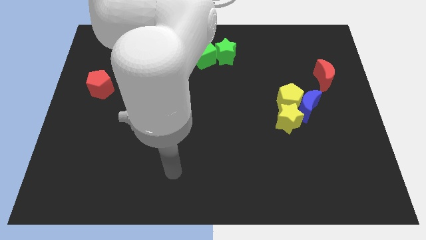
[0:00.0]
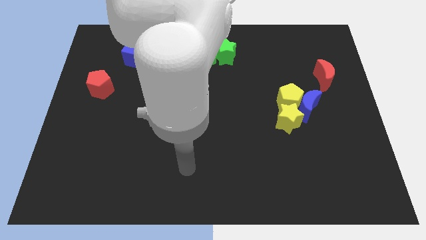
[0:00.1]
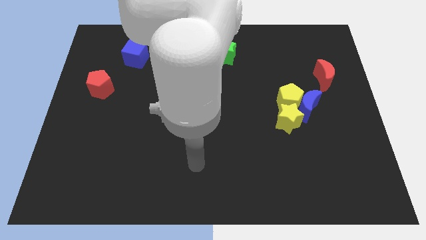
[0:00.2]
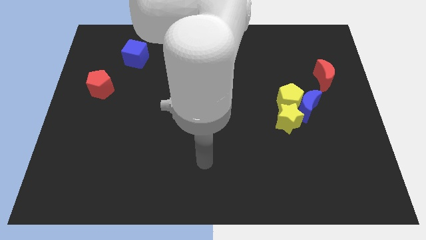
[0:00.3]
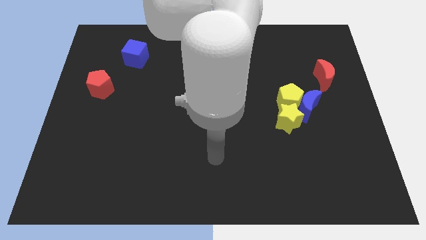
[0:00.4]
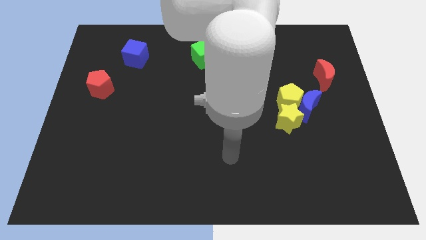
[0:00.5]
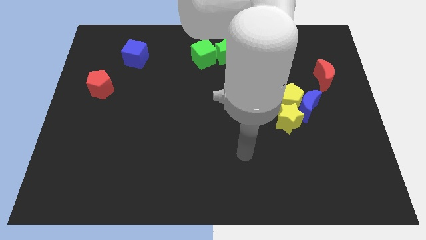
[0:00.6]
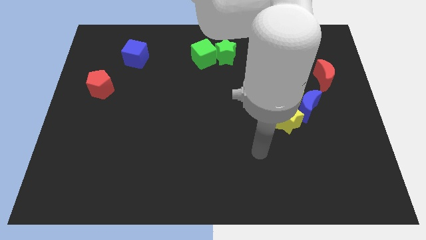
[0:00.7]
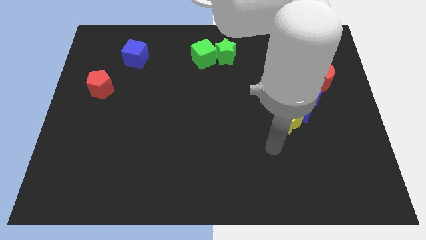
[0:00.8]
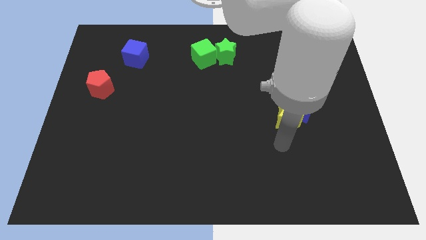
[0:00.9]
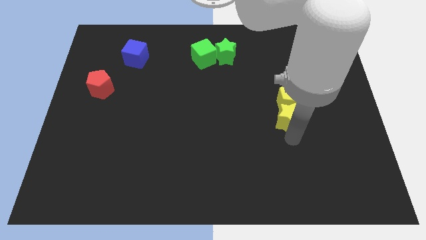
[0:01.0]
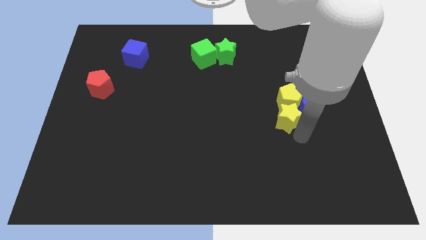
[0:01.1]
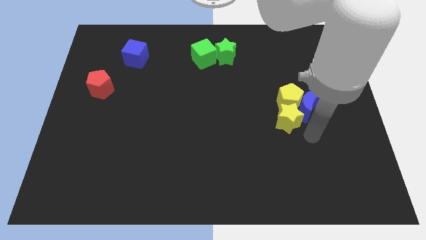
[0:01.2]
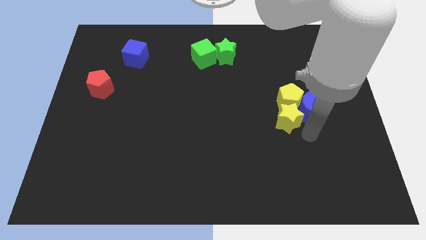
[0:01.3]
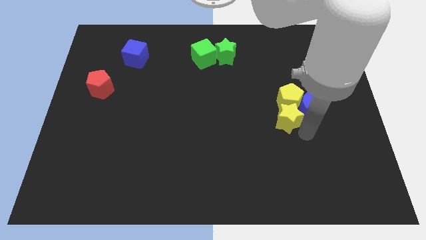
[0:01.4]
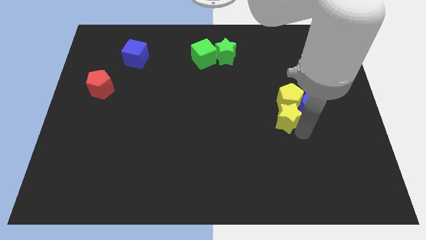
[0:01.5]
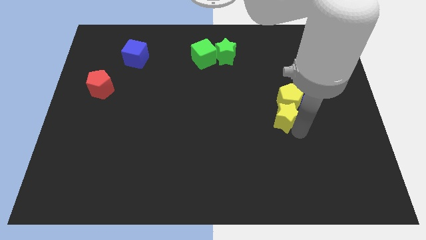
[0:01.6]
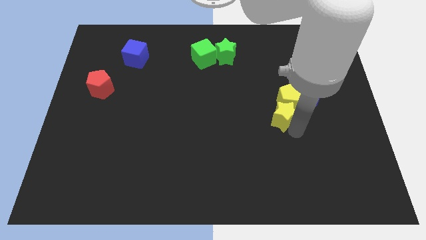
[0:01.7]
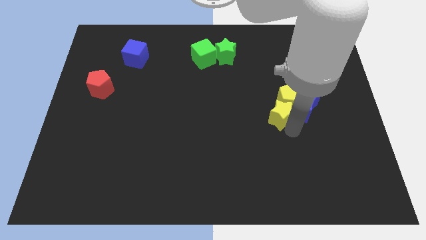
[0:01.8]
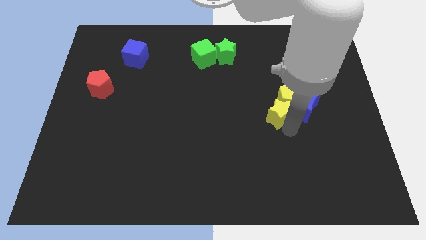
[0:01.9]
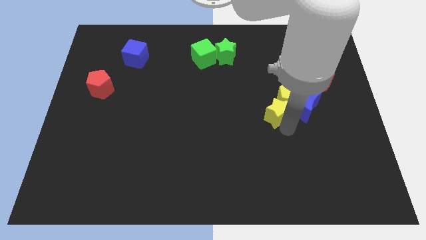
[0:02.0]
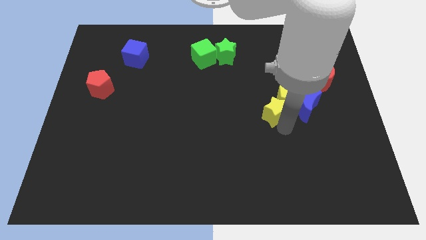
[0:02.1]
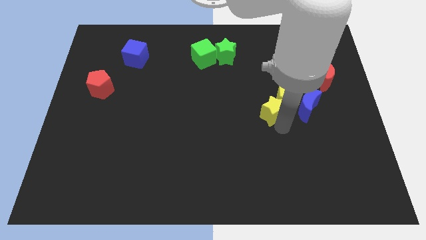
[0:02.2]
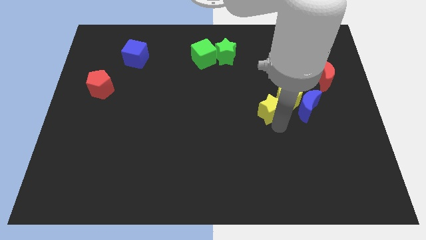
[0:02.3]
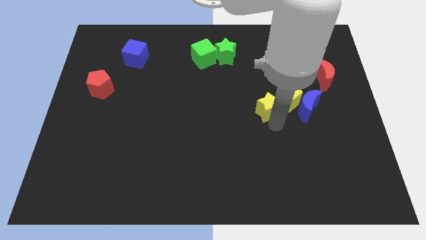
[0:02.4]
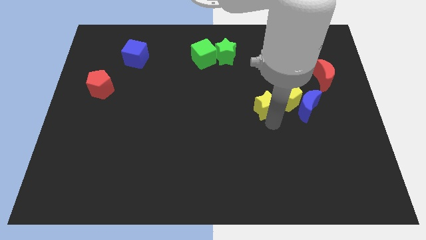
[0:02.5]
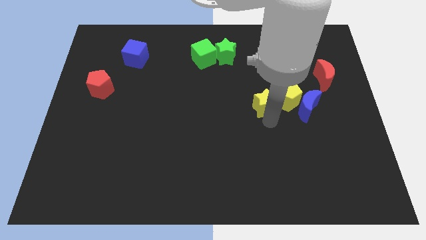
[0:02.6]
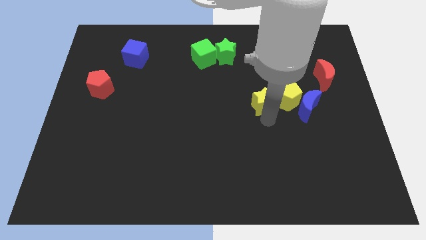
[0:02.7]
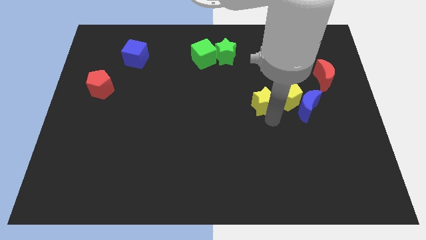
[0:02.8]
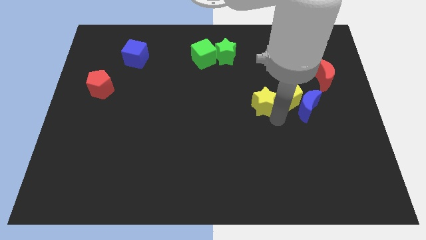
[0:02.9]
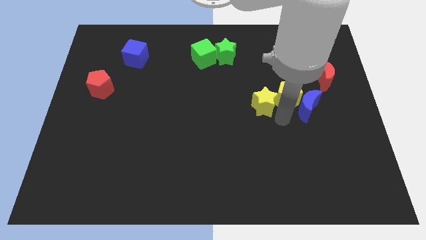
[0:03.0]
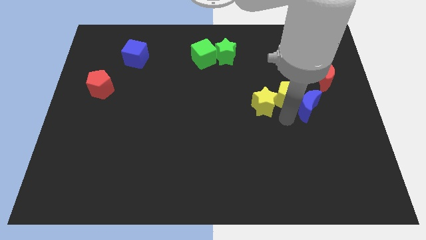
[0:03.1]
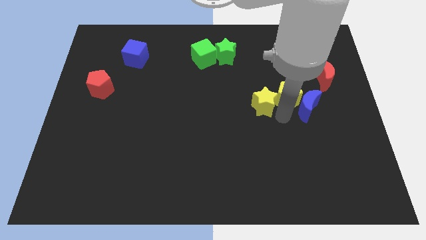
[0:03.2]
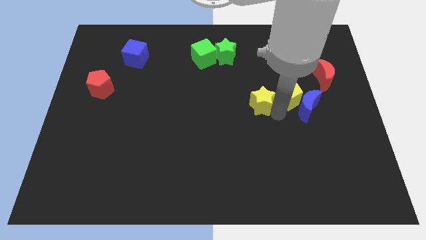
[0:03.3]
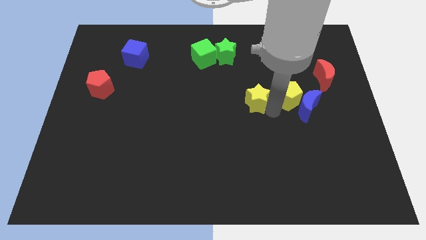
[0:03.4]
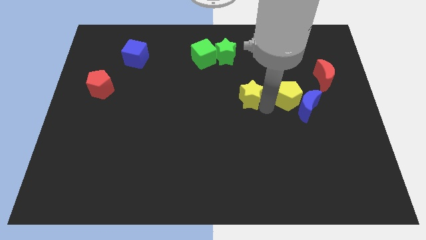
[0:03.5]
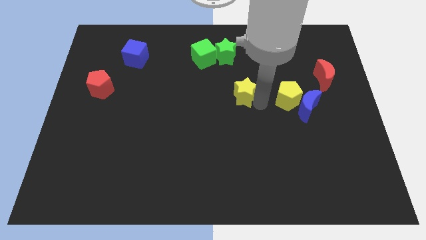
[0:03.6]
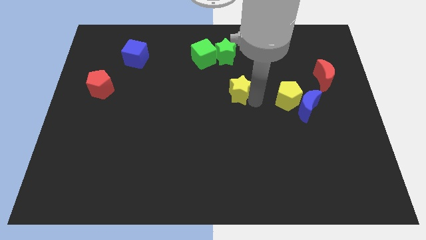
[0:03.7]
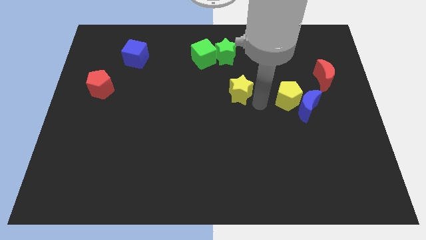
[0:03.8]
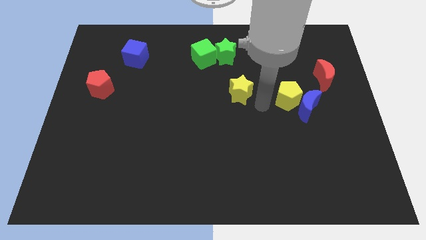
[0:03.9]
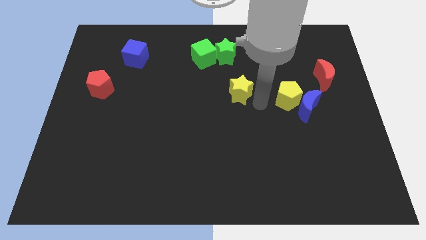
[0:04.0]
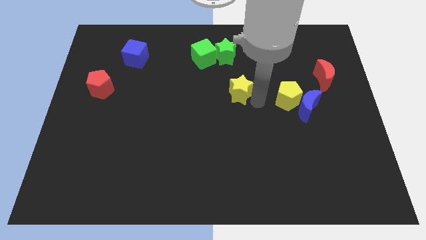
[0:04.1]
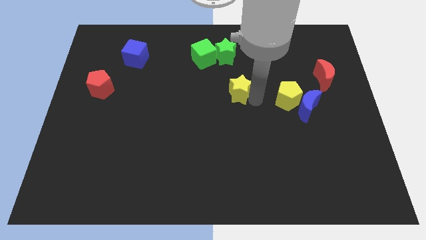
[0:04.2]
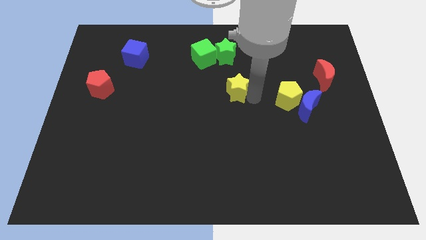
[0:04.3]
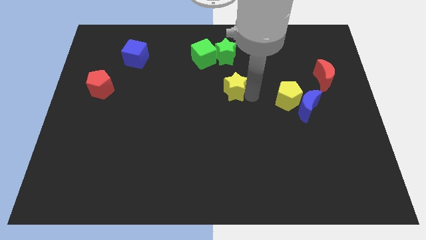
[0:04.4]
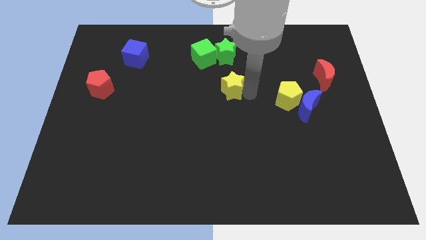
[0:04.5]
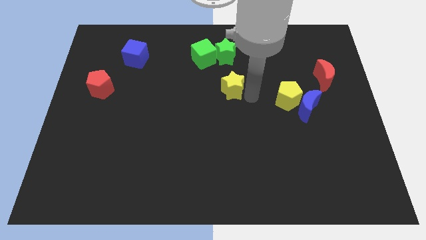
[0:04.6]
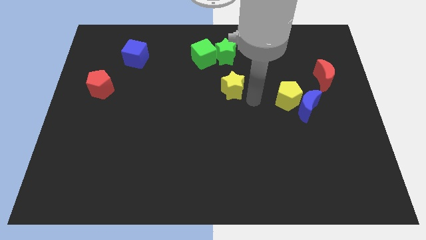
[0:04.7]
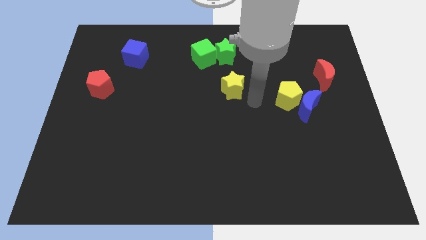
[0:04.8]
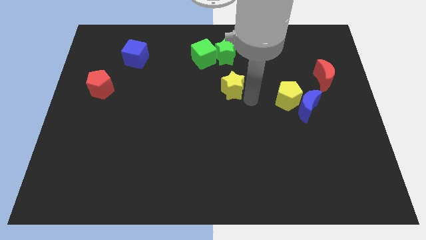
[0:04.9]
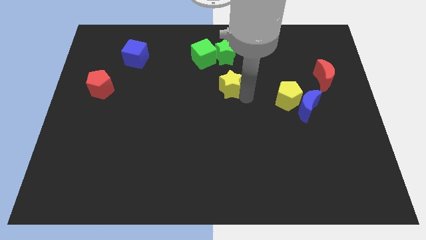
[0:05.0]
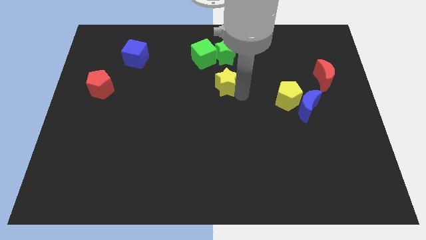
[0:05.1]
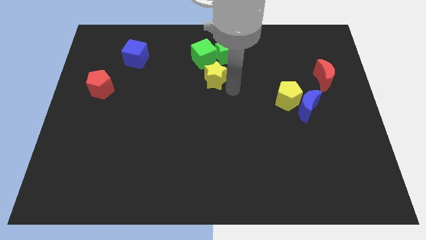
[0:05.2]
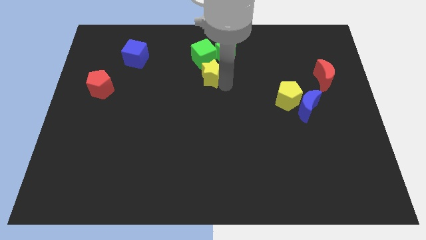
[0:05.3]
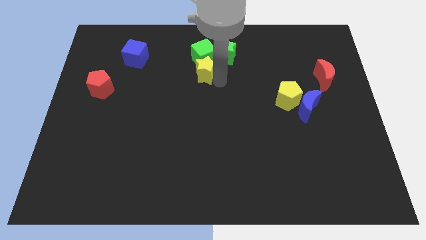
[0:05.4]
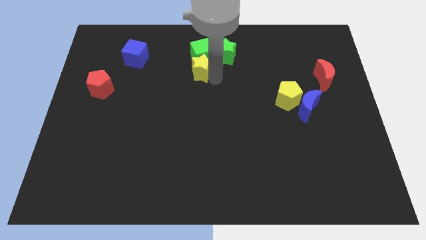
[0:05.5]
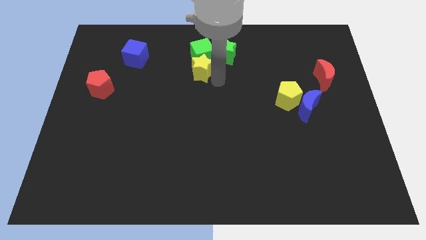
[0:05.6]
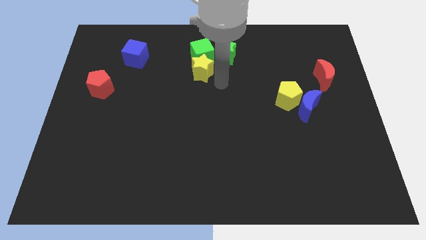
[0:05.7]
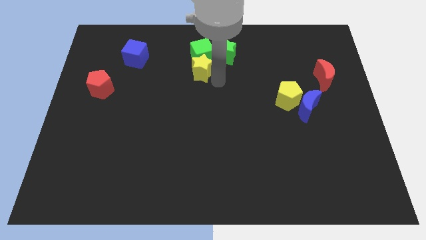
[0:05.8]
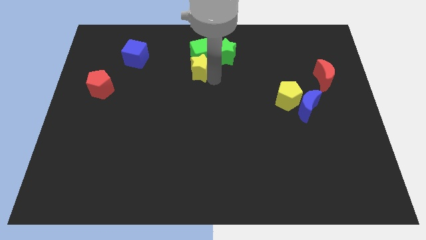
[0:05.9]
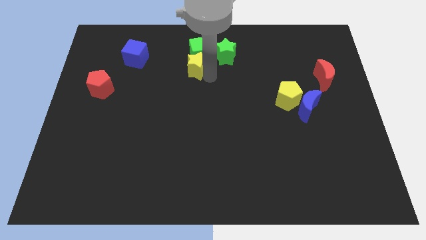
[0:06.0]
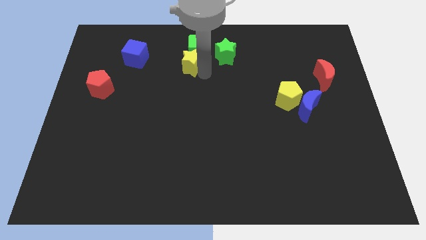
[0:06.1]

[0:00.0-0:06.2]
push the yellow star right of the blue cube

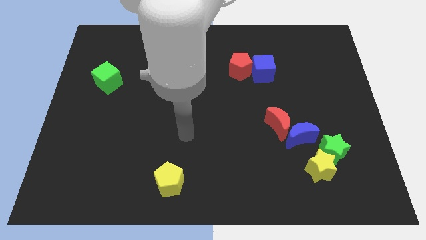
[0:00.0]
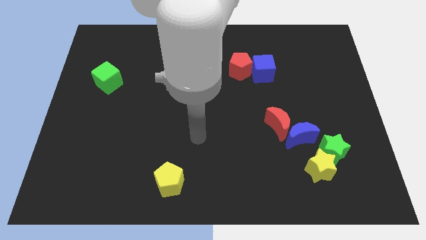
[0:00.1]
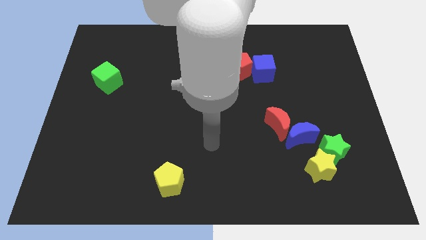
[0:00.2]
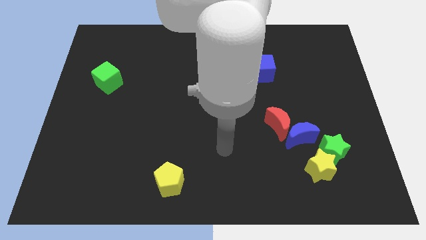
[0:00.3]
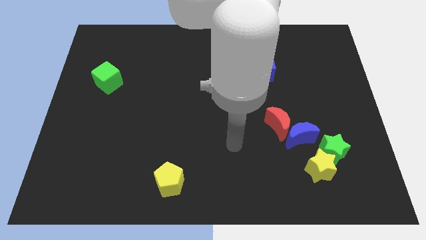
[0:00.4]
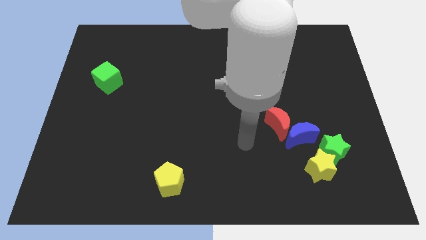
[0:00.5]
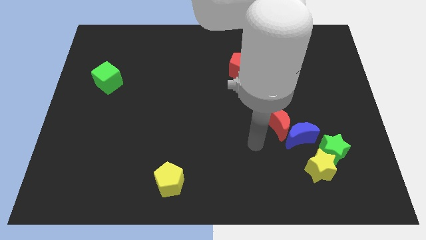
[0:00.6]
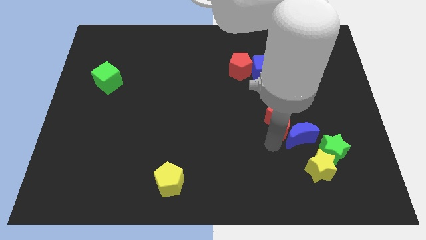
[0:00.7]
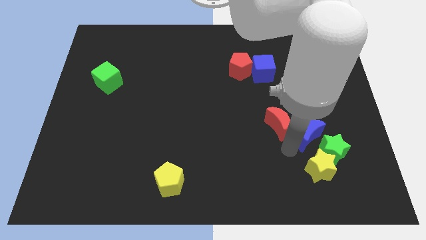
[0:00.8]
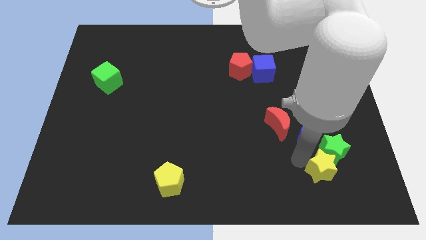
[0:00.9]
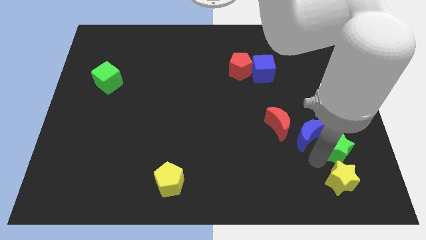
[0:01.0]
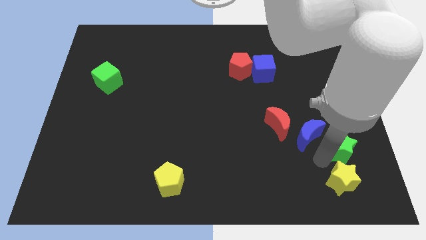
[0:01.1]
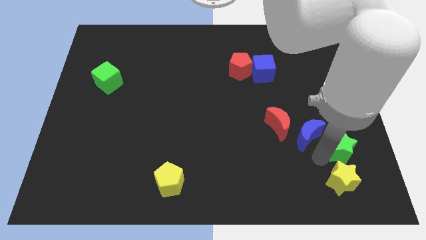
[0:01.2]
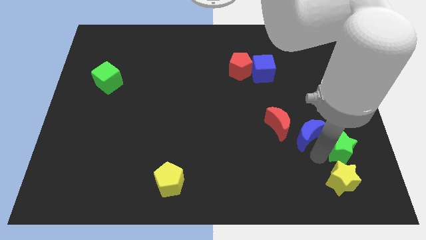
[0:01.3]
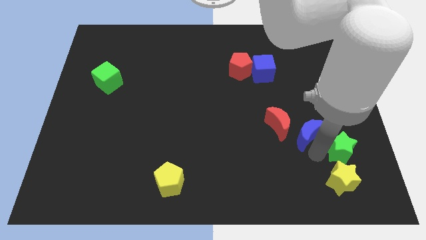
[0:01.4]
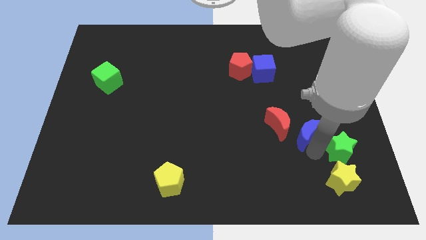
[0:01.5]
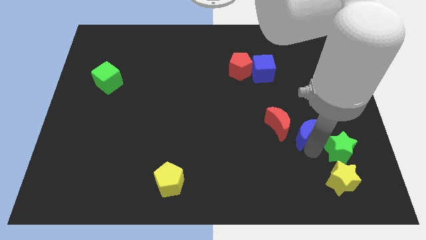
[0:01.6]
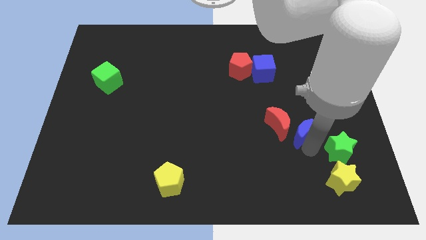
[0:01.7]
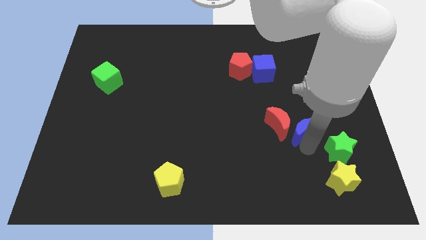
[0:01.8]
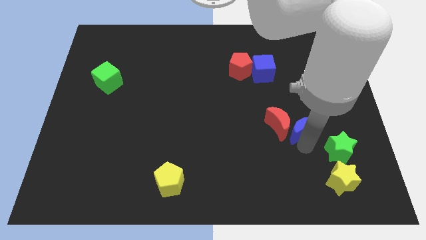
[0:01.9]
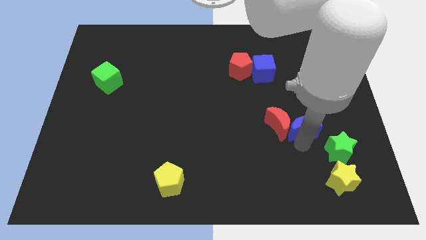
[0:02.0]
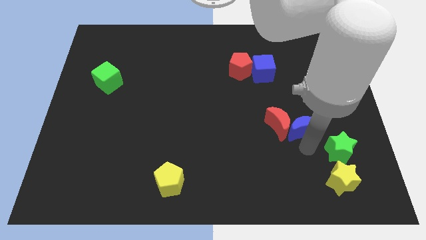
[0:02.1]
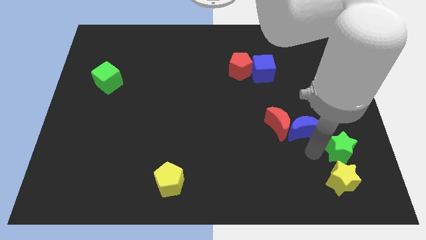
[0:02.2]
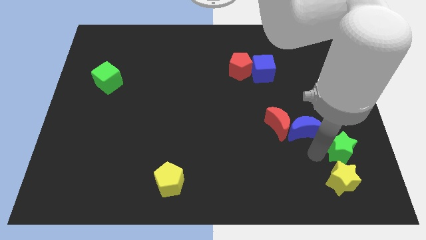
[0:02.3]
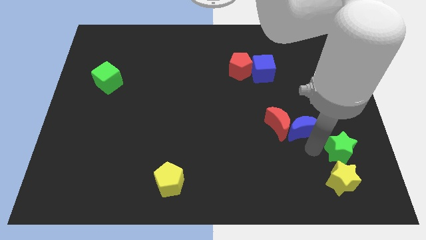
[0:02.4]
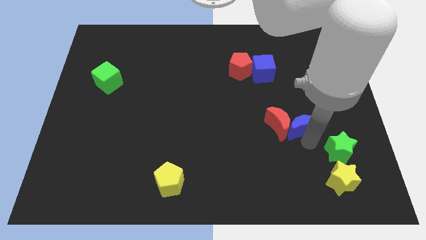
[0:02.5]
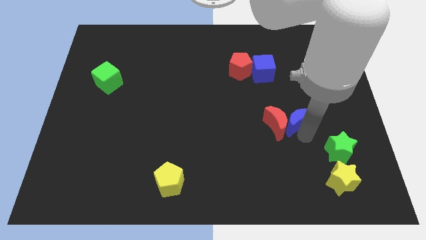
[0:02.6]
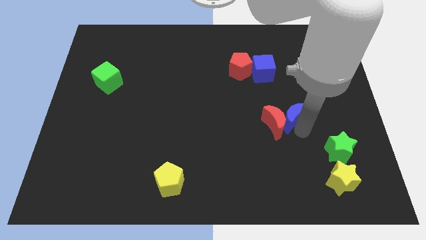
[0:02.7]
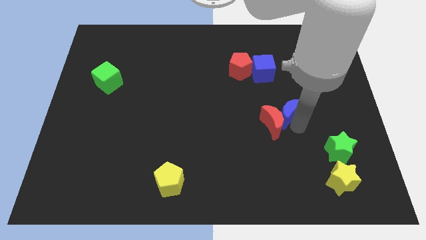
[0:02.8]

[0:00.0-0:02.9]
put the blue moon to the top side of the red moon
